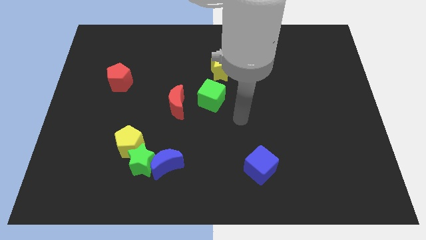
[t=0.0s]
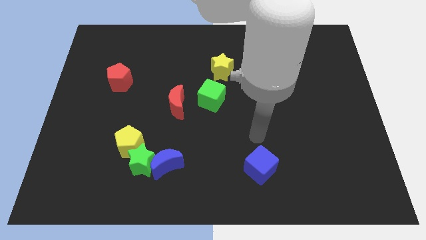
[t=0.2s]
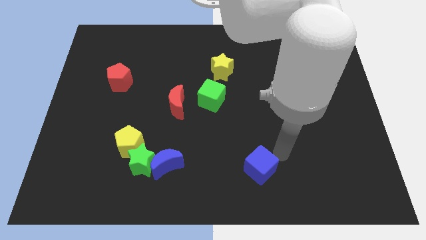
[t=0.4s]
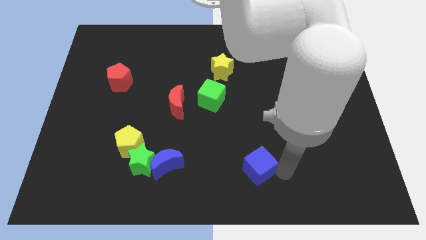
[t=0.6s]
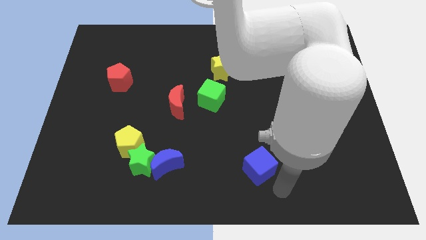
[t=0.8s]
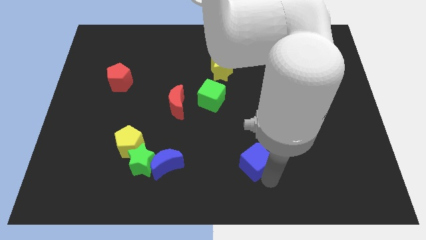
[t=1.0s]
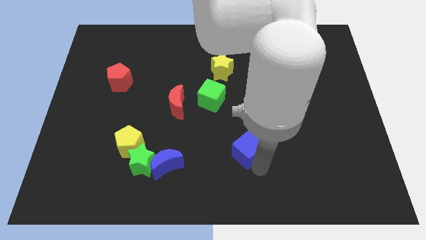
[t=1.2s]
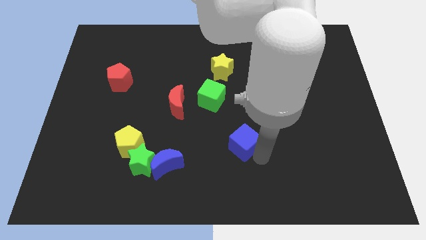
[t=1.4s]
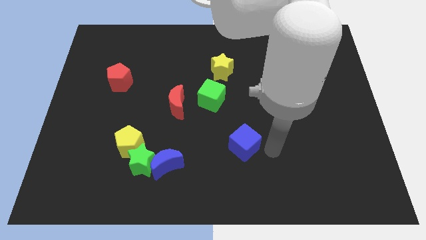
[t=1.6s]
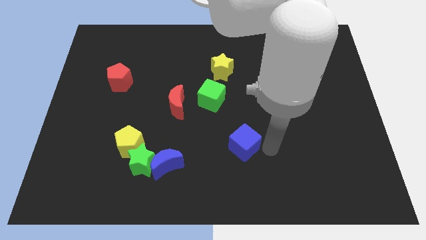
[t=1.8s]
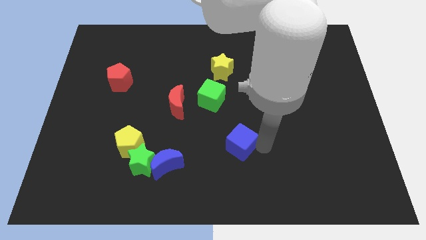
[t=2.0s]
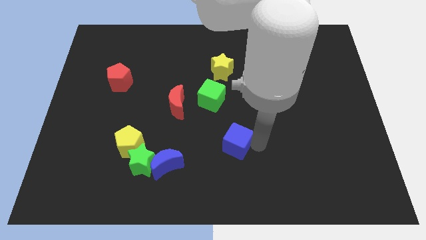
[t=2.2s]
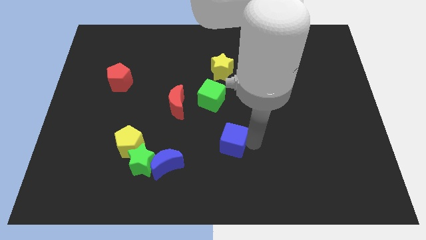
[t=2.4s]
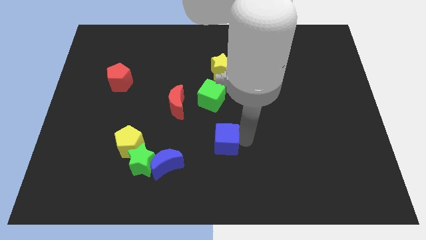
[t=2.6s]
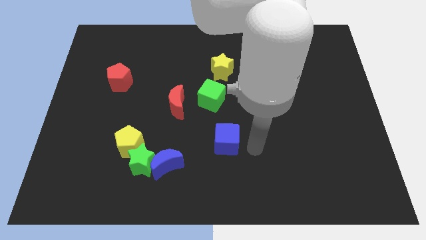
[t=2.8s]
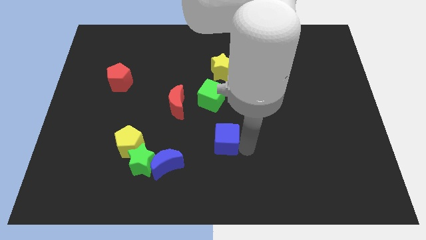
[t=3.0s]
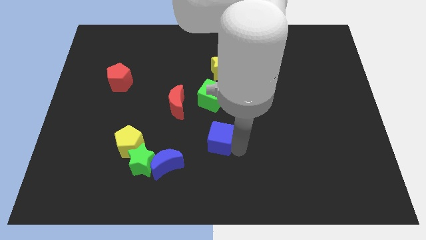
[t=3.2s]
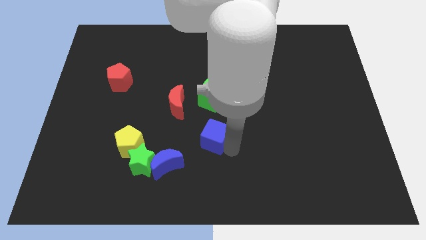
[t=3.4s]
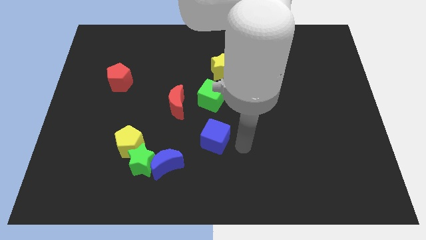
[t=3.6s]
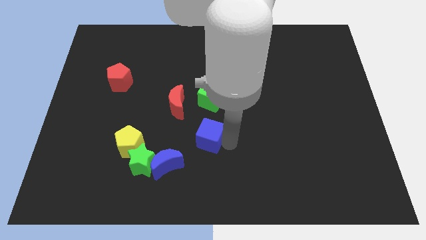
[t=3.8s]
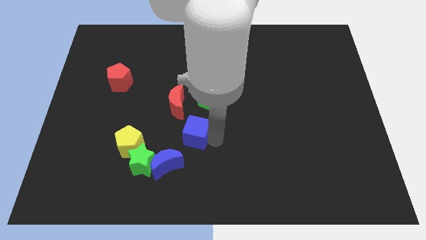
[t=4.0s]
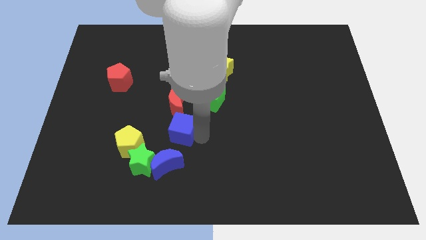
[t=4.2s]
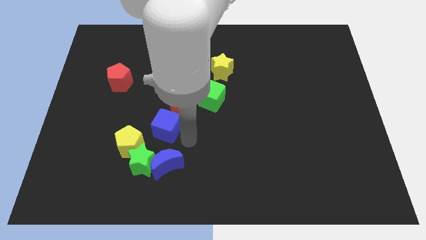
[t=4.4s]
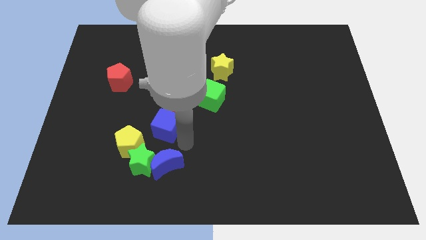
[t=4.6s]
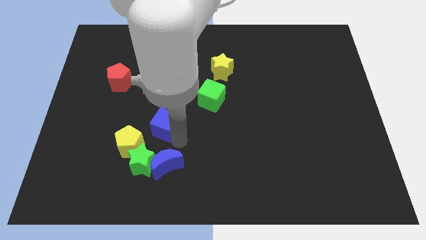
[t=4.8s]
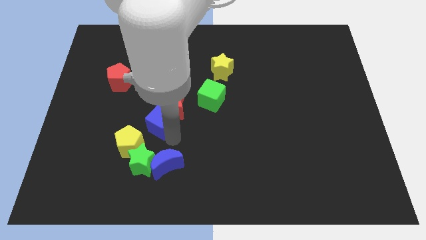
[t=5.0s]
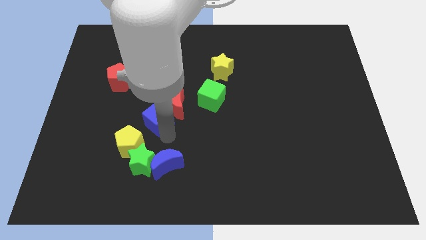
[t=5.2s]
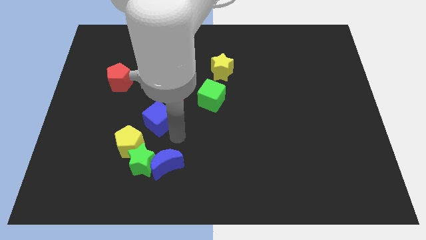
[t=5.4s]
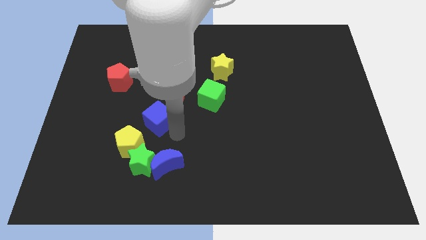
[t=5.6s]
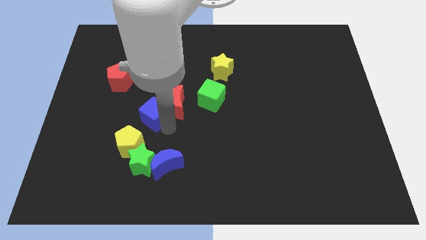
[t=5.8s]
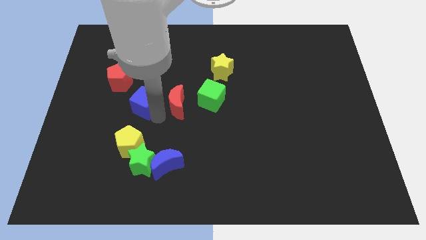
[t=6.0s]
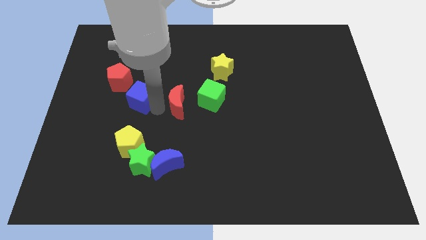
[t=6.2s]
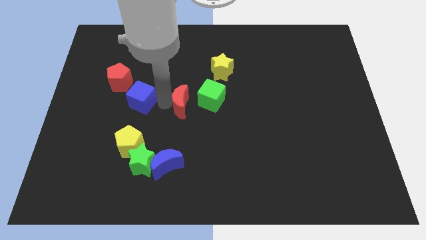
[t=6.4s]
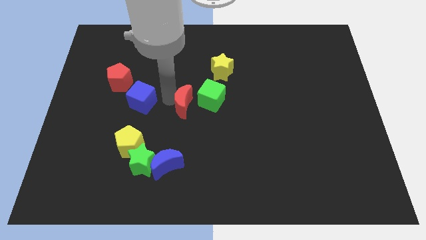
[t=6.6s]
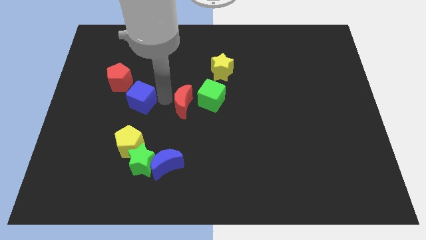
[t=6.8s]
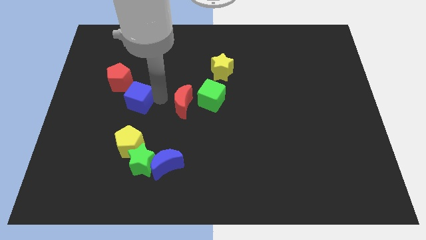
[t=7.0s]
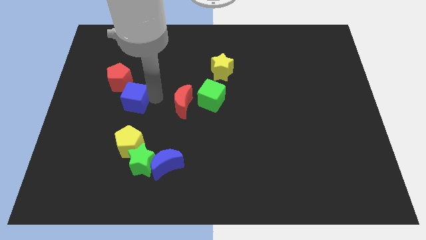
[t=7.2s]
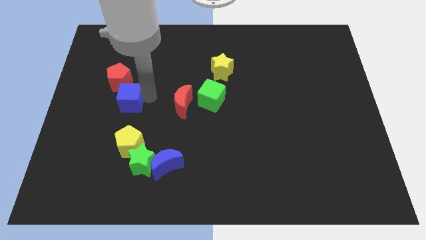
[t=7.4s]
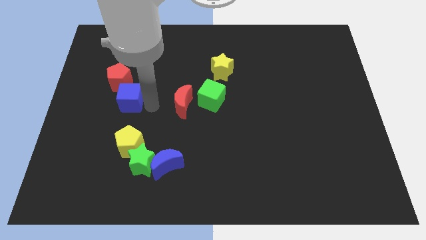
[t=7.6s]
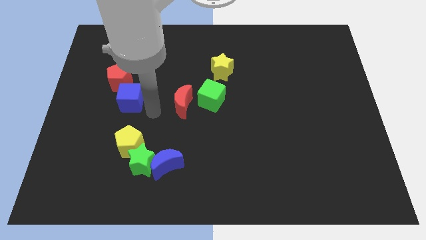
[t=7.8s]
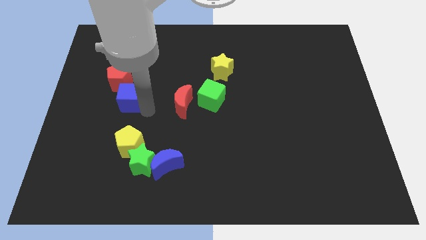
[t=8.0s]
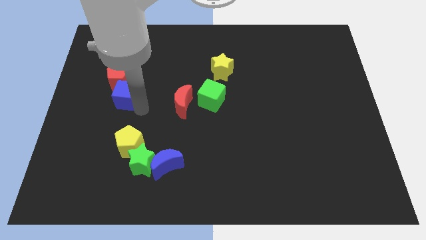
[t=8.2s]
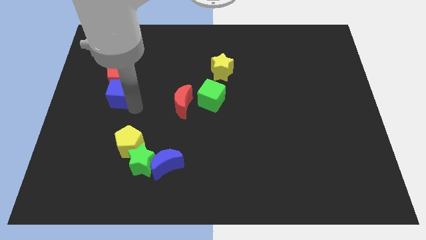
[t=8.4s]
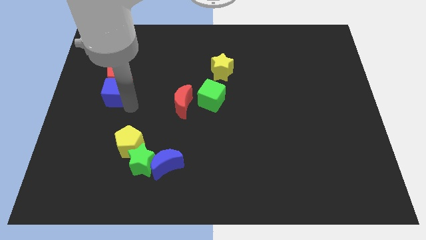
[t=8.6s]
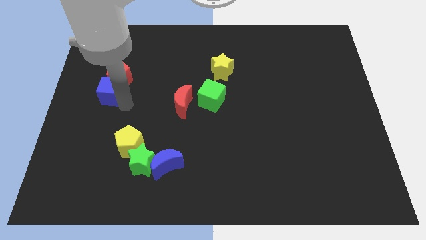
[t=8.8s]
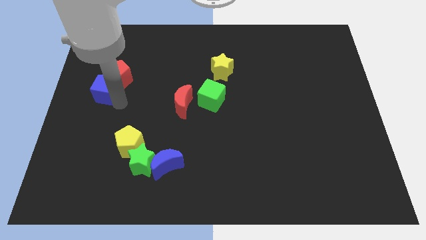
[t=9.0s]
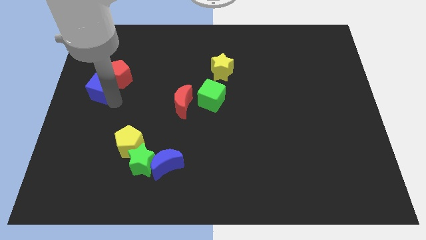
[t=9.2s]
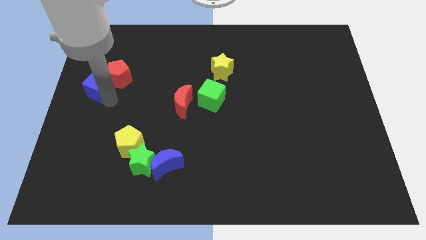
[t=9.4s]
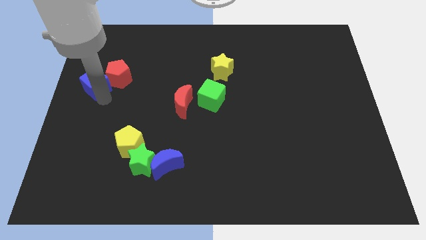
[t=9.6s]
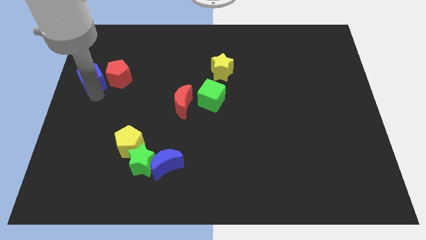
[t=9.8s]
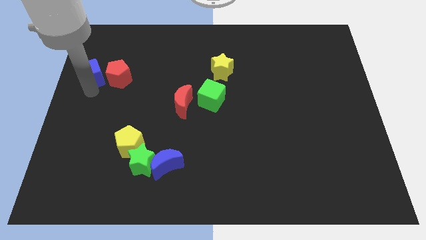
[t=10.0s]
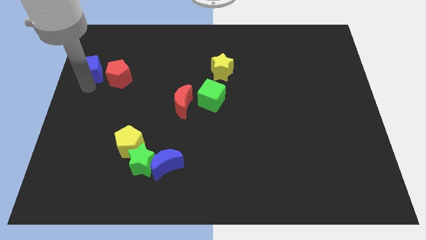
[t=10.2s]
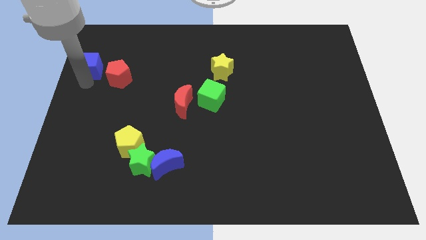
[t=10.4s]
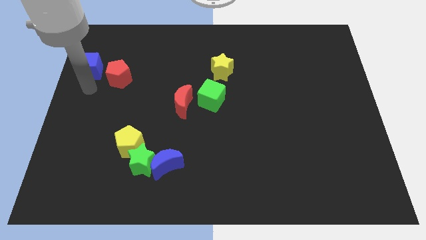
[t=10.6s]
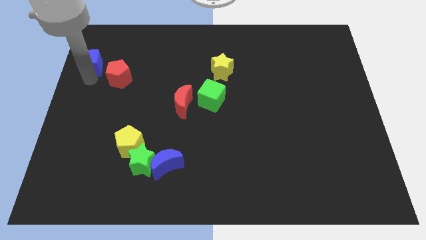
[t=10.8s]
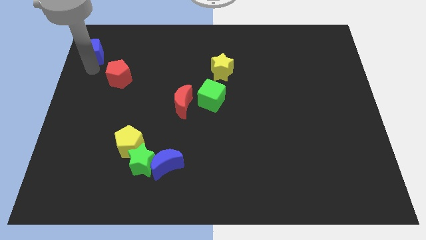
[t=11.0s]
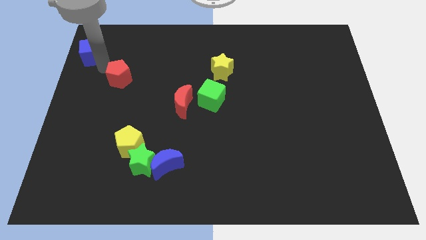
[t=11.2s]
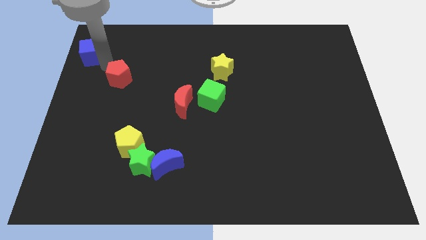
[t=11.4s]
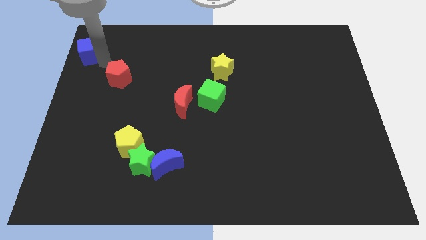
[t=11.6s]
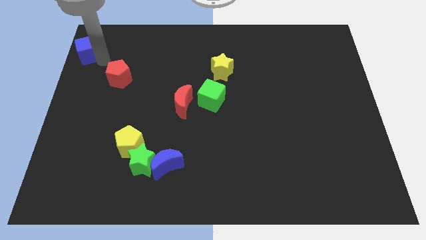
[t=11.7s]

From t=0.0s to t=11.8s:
put the blue cube to the top left corner

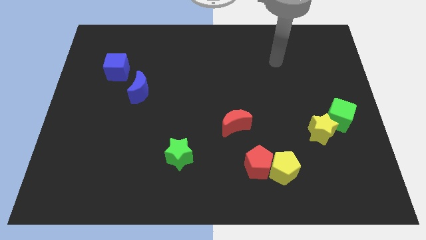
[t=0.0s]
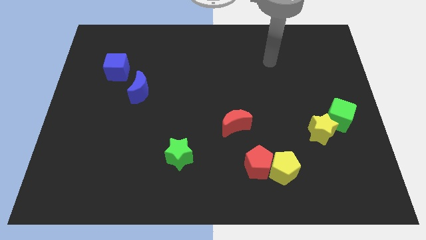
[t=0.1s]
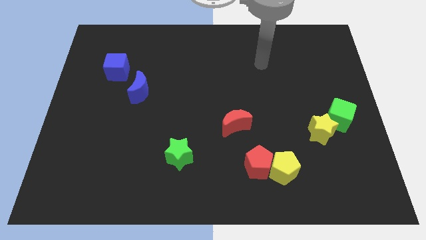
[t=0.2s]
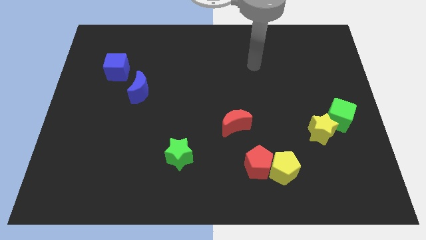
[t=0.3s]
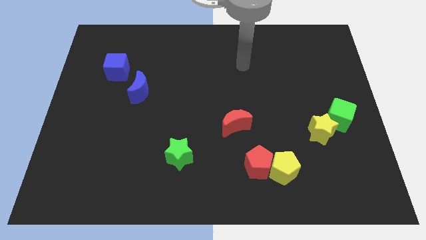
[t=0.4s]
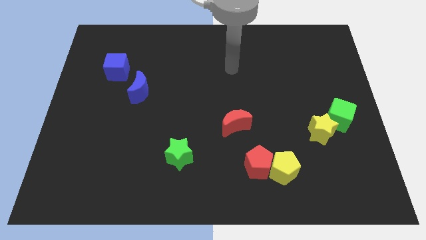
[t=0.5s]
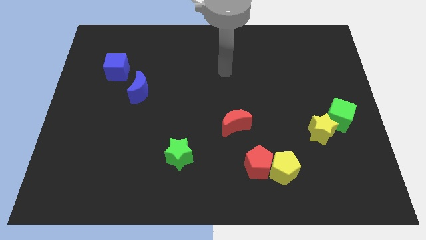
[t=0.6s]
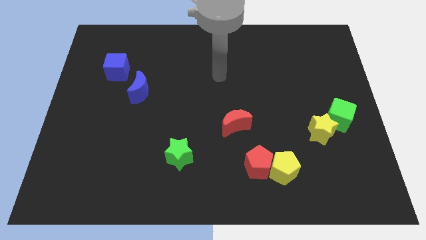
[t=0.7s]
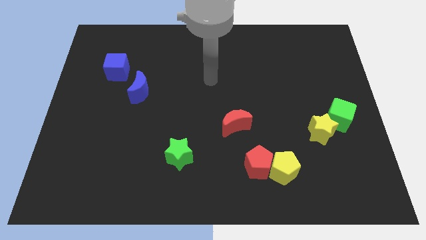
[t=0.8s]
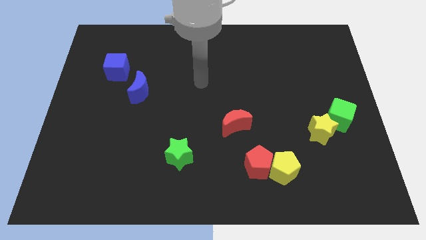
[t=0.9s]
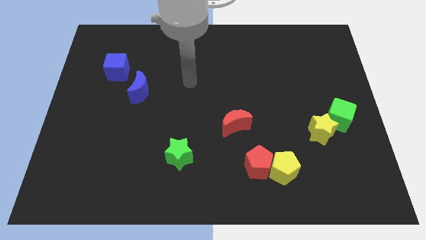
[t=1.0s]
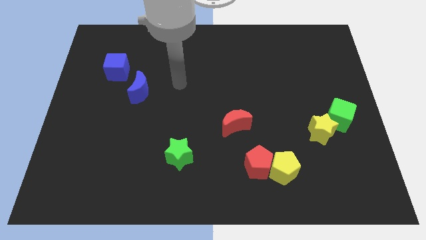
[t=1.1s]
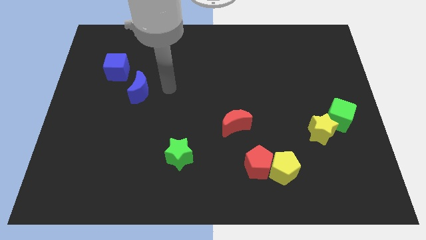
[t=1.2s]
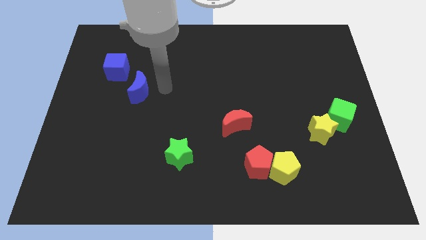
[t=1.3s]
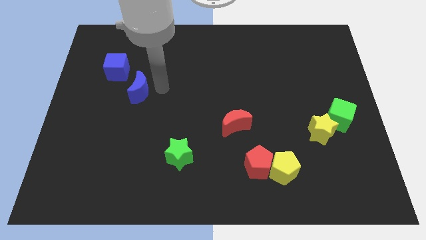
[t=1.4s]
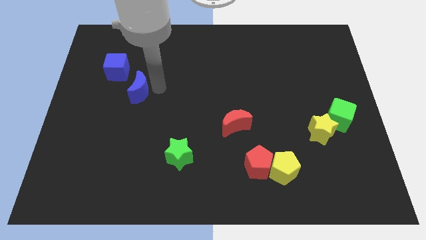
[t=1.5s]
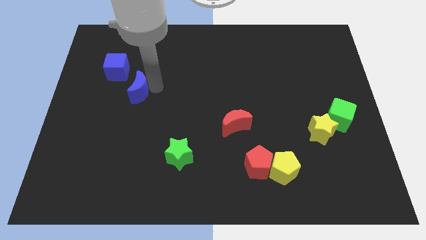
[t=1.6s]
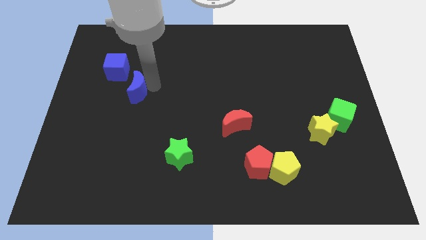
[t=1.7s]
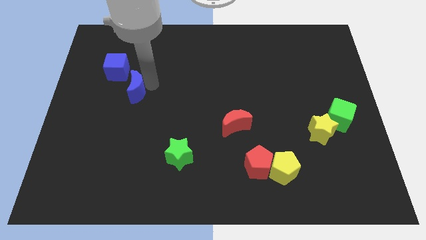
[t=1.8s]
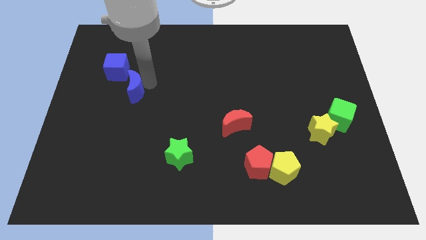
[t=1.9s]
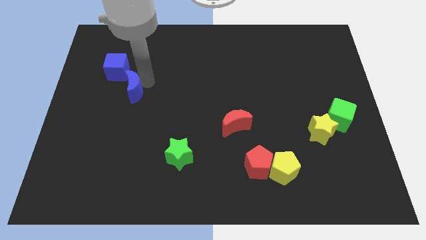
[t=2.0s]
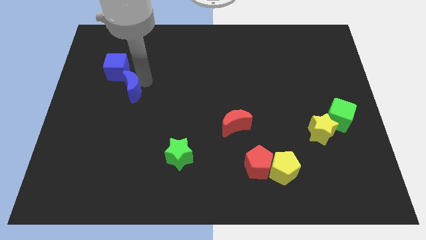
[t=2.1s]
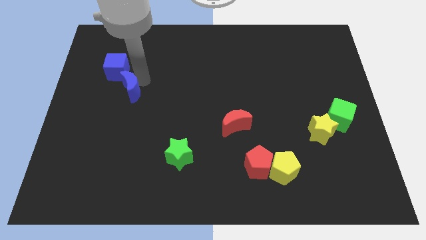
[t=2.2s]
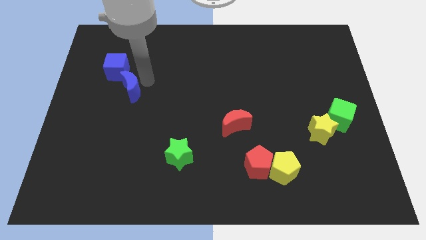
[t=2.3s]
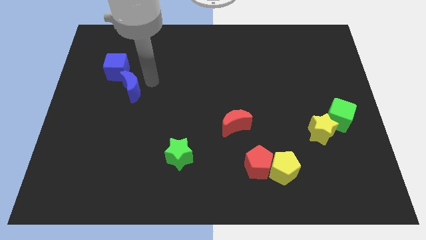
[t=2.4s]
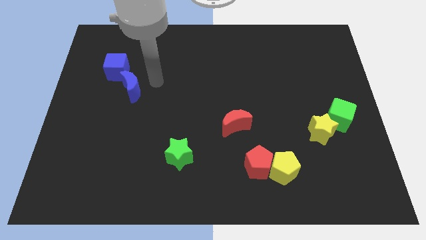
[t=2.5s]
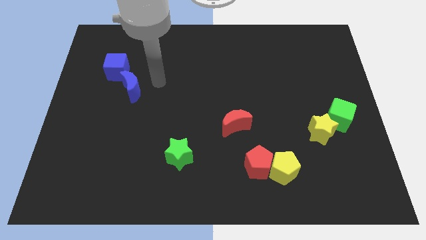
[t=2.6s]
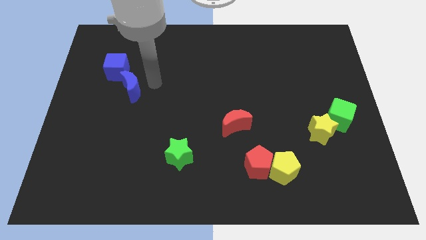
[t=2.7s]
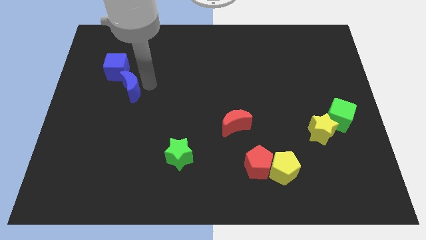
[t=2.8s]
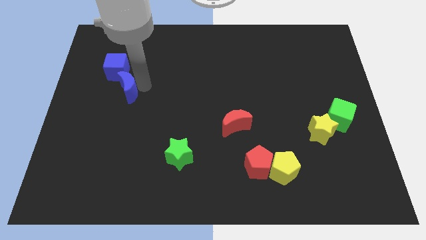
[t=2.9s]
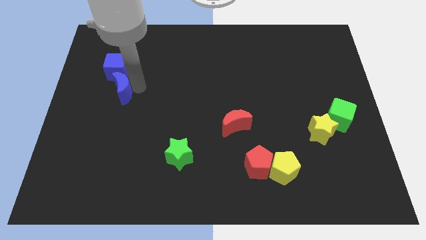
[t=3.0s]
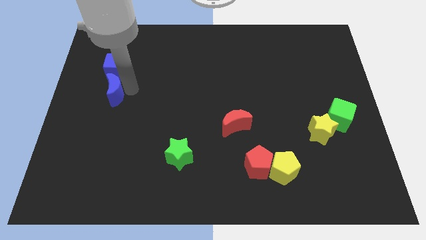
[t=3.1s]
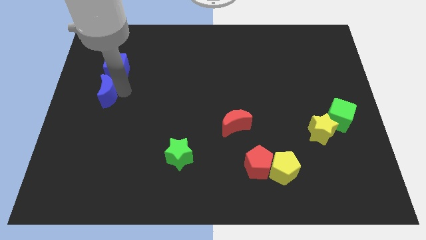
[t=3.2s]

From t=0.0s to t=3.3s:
put the blue moon to the left side
